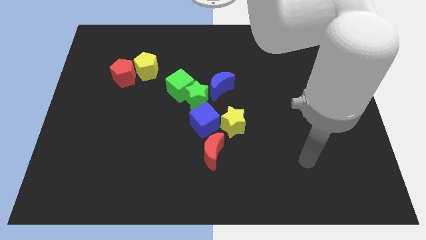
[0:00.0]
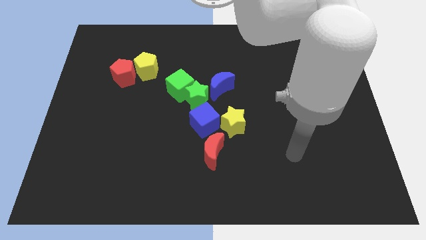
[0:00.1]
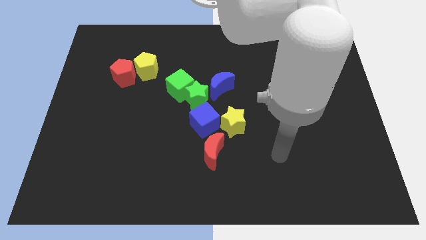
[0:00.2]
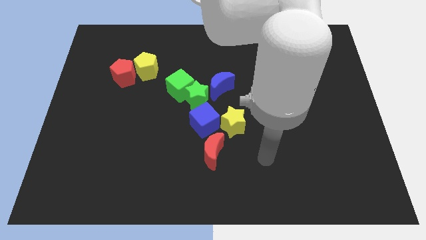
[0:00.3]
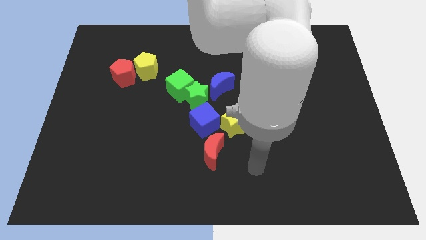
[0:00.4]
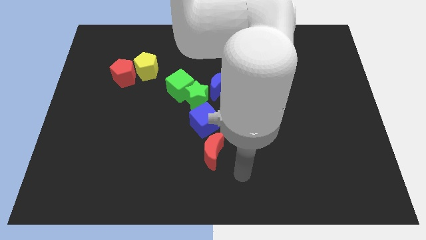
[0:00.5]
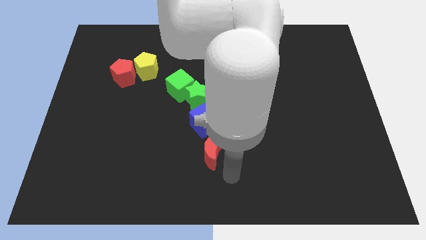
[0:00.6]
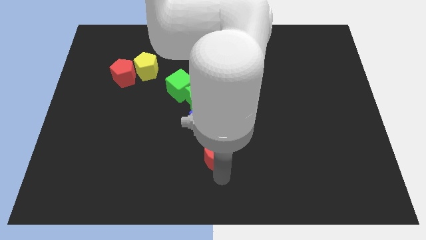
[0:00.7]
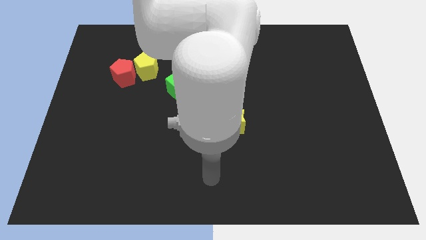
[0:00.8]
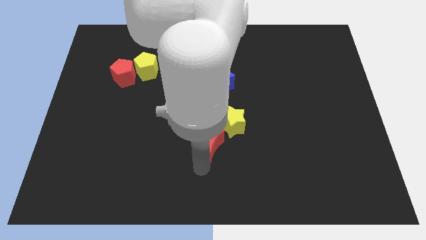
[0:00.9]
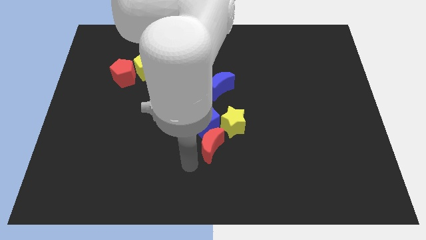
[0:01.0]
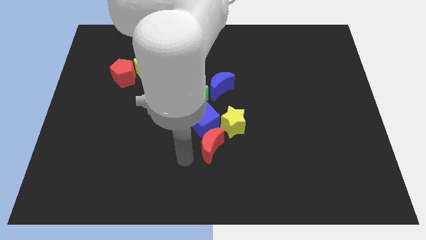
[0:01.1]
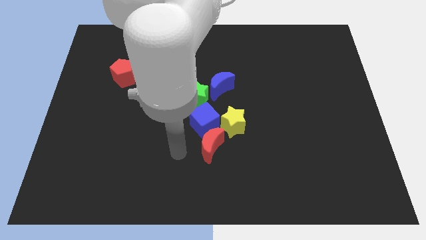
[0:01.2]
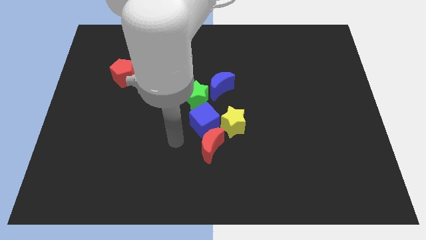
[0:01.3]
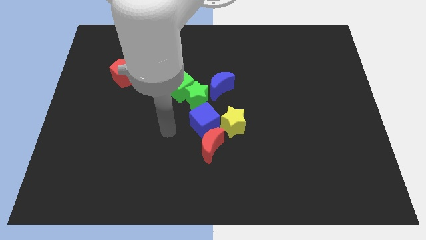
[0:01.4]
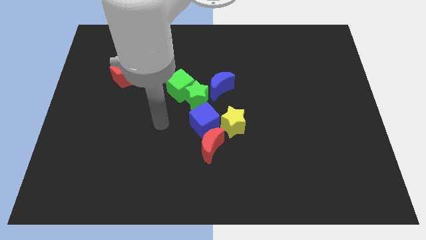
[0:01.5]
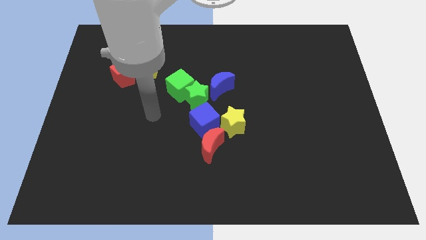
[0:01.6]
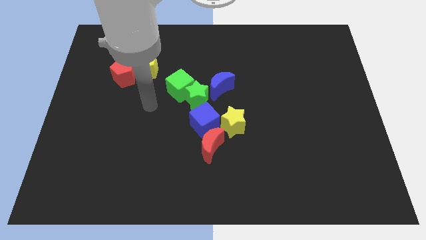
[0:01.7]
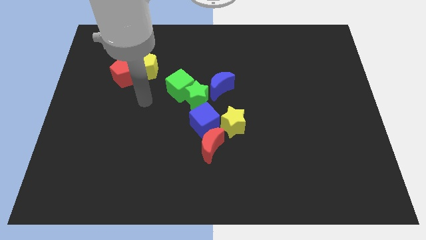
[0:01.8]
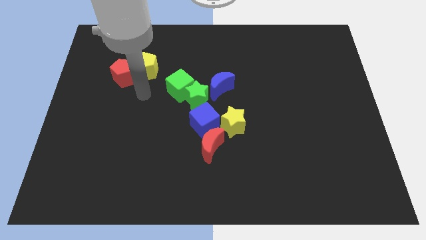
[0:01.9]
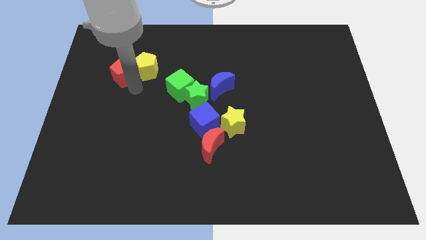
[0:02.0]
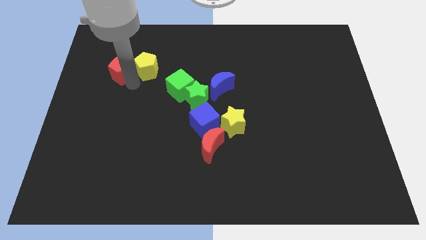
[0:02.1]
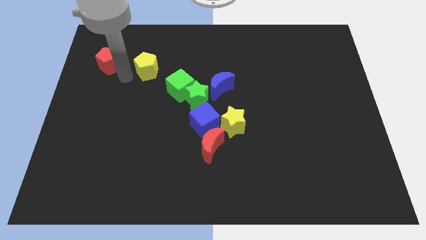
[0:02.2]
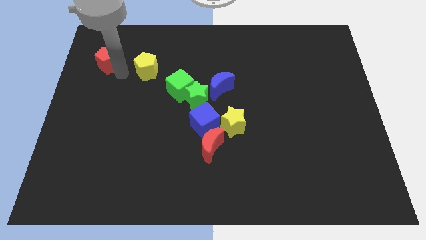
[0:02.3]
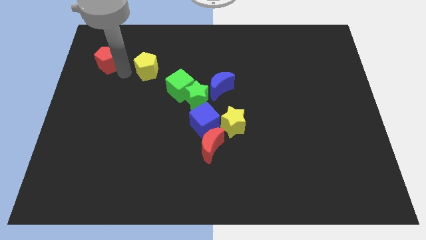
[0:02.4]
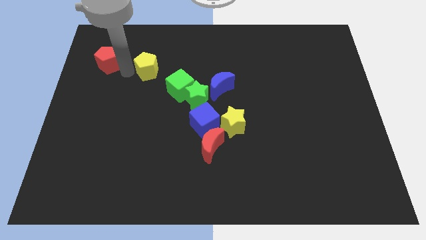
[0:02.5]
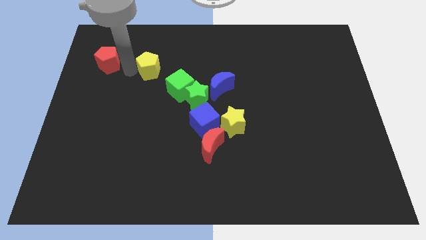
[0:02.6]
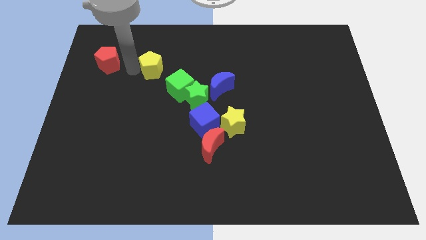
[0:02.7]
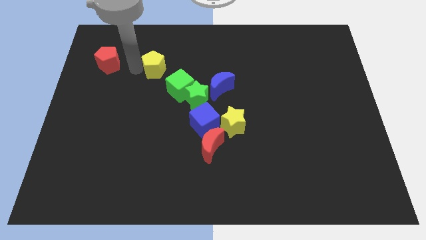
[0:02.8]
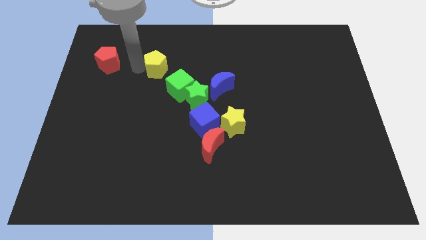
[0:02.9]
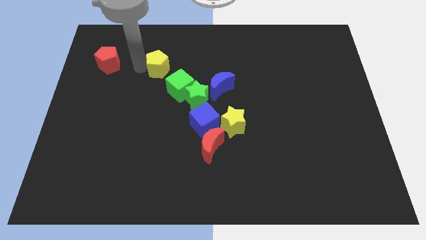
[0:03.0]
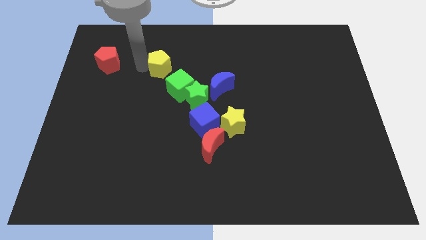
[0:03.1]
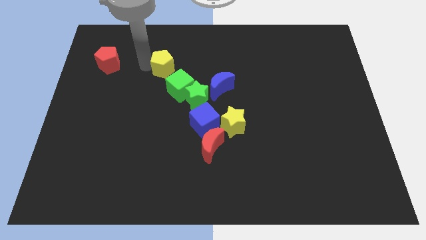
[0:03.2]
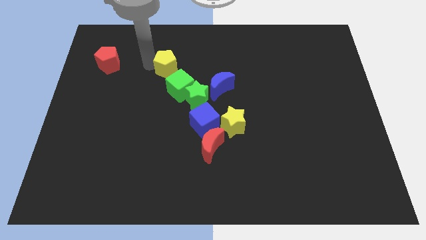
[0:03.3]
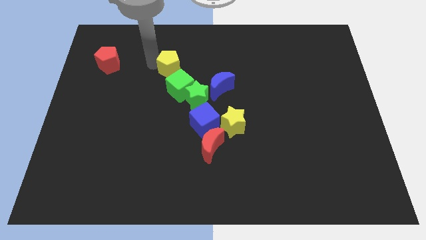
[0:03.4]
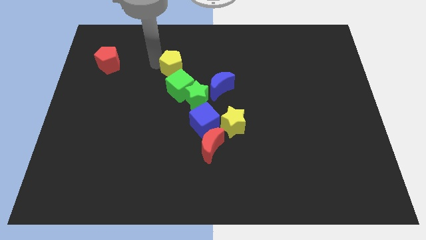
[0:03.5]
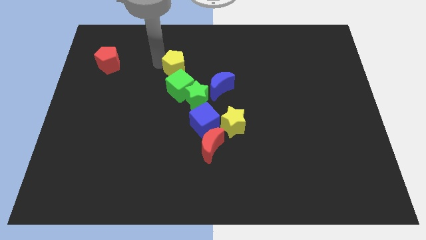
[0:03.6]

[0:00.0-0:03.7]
push the yellow pentagon a little to the right

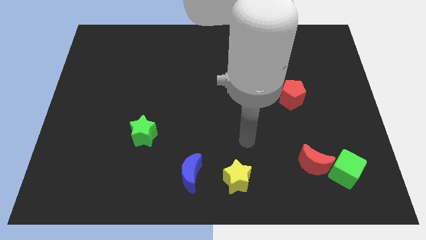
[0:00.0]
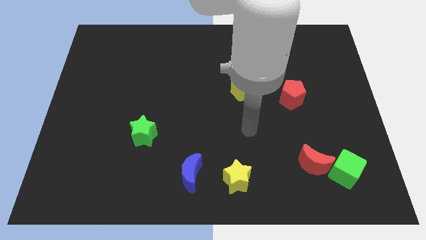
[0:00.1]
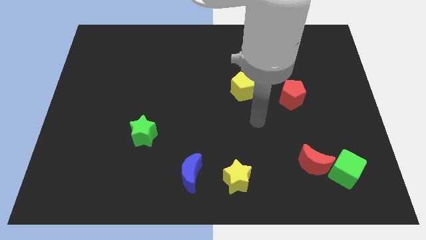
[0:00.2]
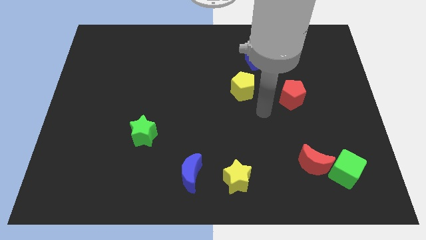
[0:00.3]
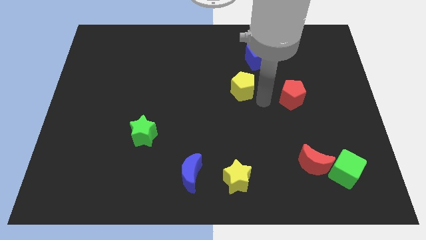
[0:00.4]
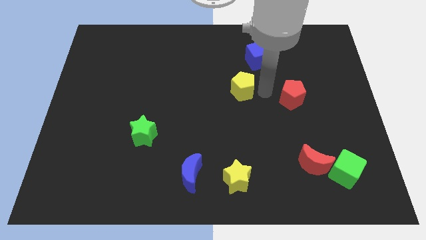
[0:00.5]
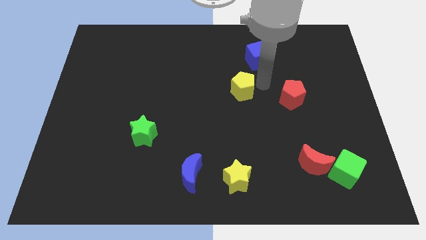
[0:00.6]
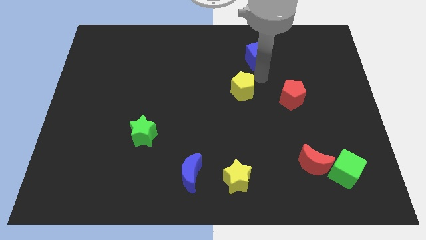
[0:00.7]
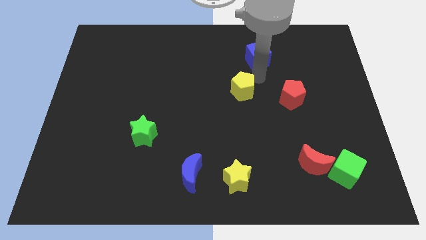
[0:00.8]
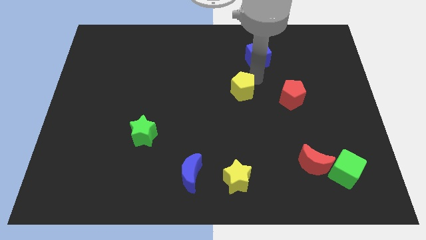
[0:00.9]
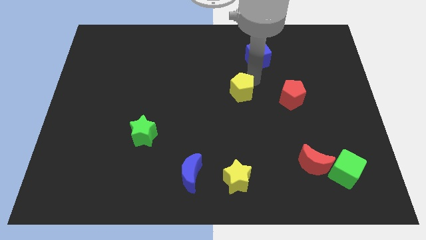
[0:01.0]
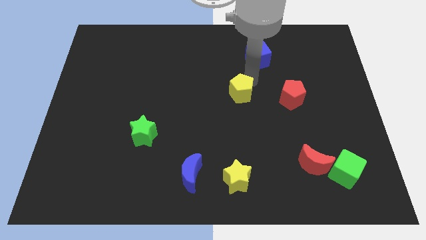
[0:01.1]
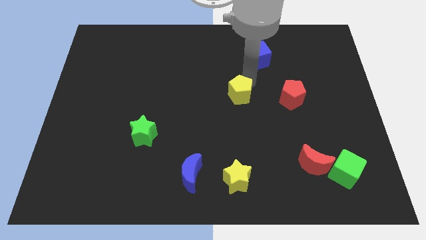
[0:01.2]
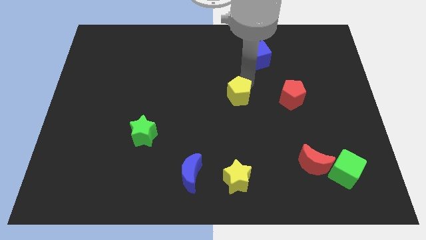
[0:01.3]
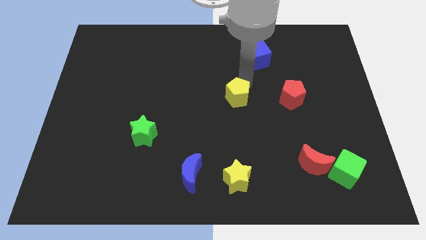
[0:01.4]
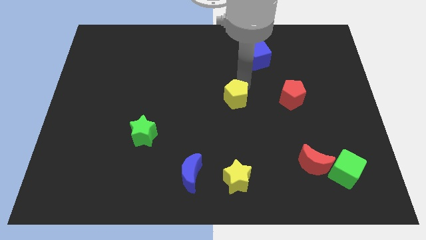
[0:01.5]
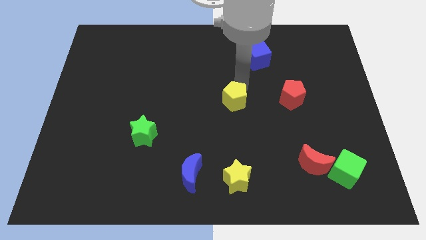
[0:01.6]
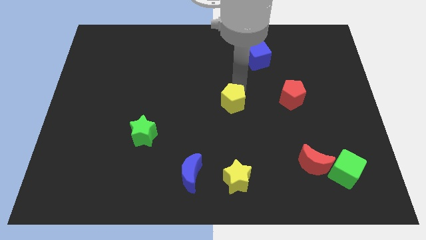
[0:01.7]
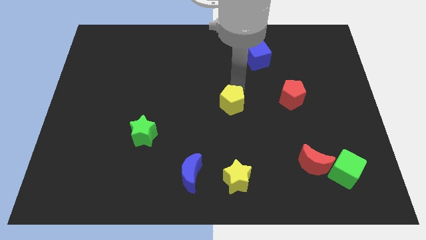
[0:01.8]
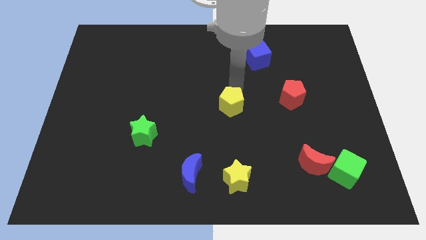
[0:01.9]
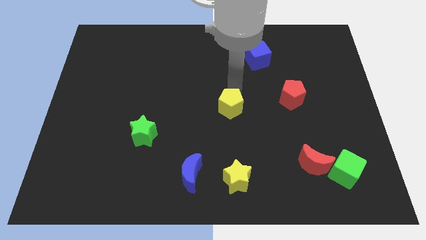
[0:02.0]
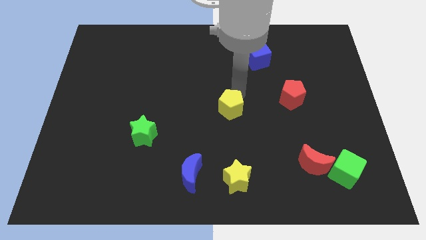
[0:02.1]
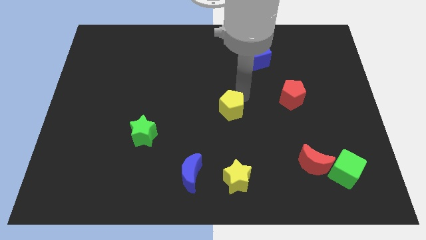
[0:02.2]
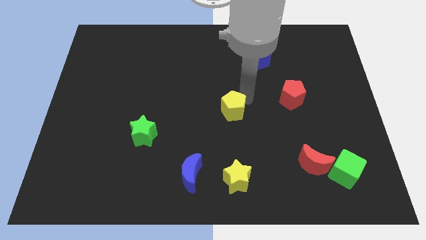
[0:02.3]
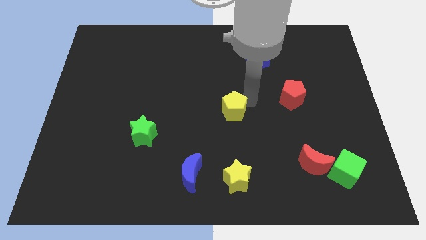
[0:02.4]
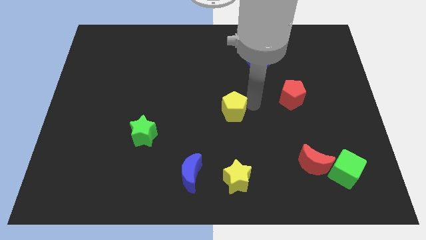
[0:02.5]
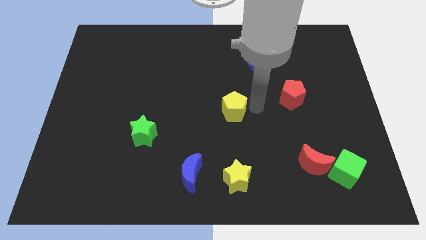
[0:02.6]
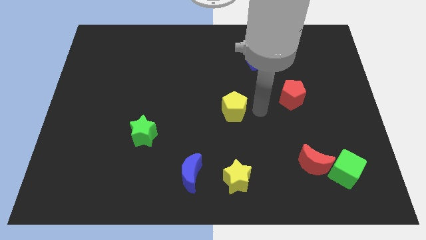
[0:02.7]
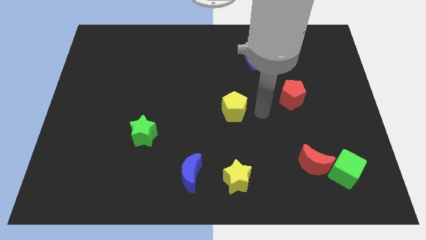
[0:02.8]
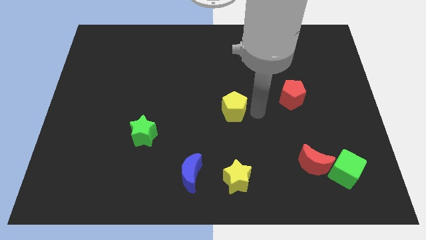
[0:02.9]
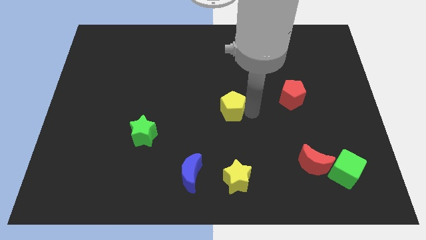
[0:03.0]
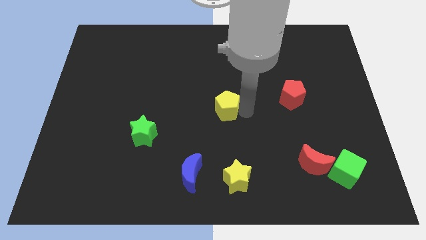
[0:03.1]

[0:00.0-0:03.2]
move the yellow pentagon downwards and to the left diagonally a little

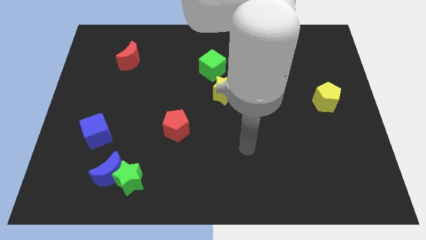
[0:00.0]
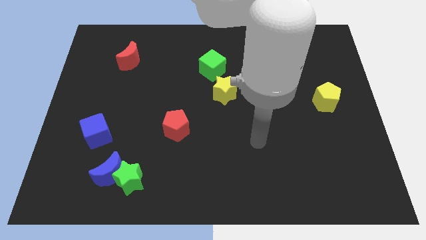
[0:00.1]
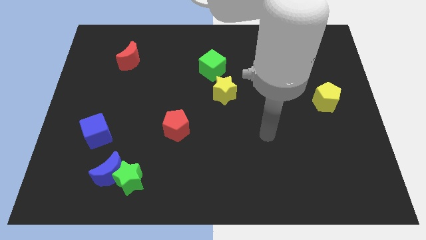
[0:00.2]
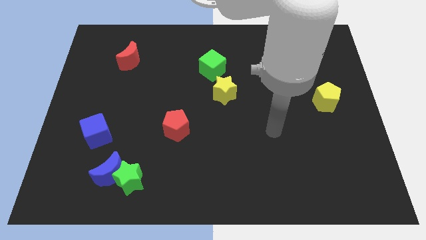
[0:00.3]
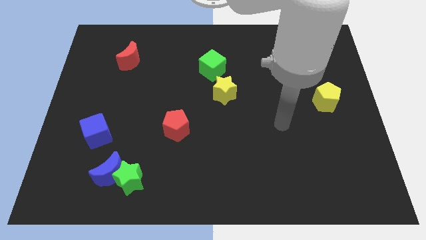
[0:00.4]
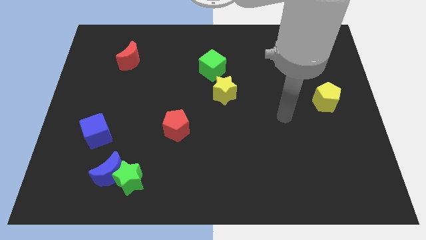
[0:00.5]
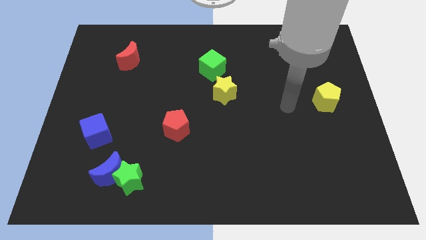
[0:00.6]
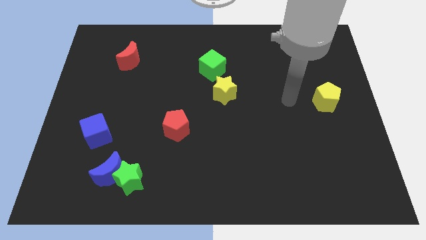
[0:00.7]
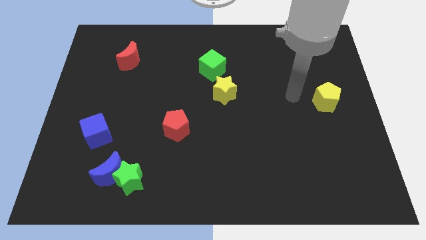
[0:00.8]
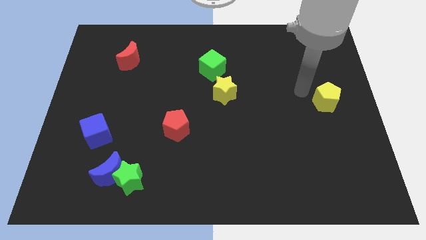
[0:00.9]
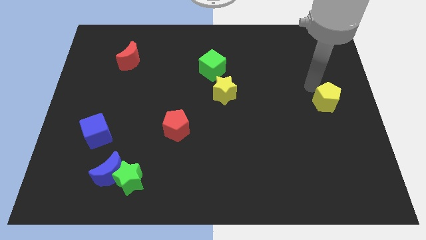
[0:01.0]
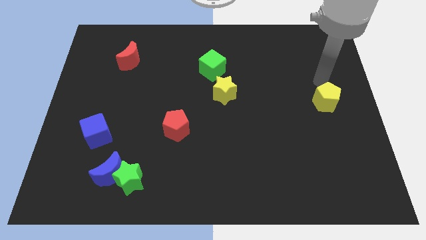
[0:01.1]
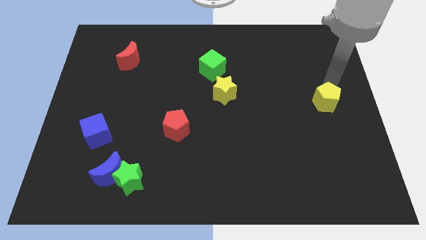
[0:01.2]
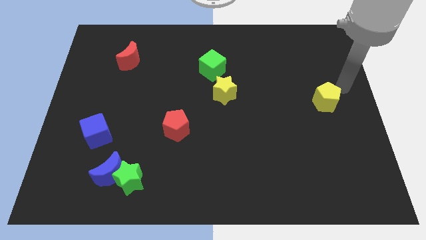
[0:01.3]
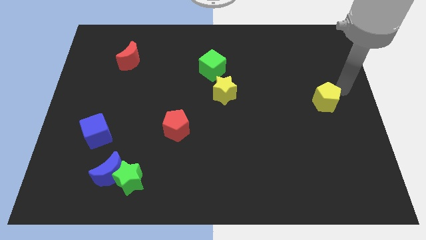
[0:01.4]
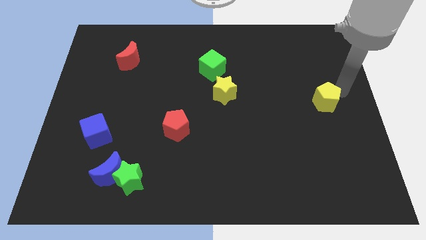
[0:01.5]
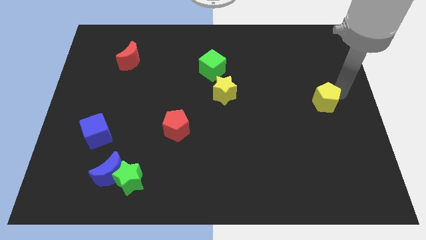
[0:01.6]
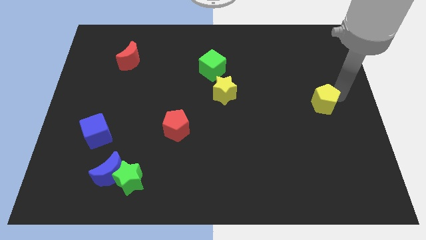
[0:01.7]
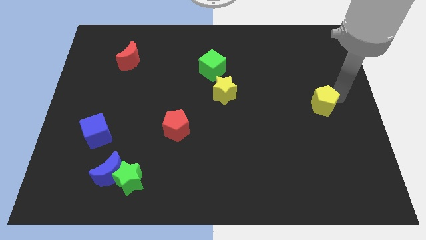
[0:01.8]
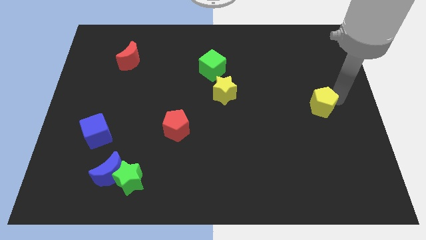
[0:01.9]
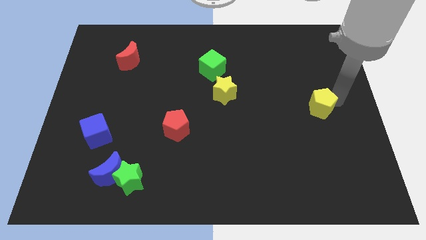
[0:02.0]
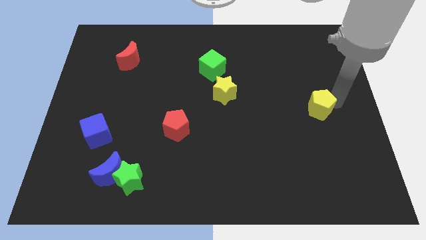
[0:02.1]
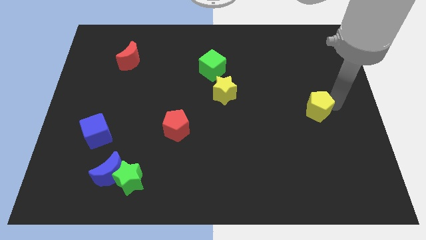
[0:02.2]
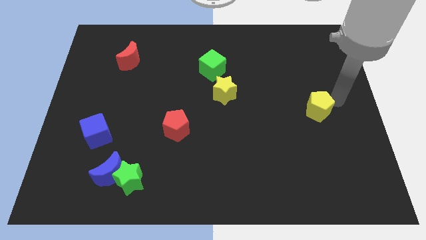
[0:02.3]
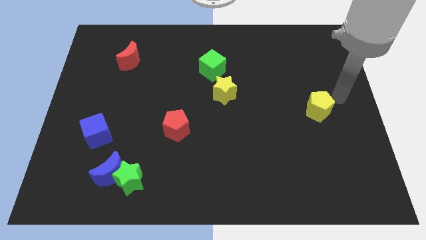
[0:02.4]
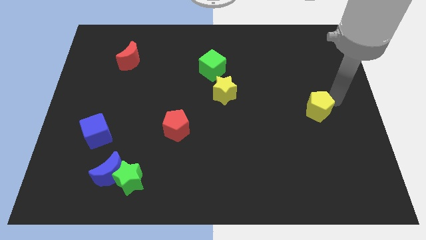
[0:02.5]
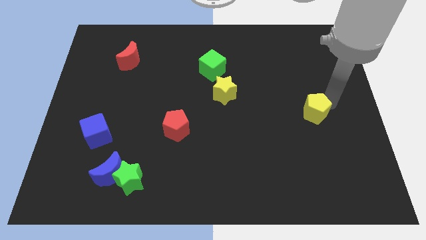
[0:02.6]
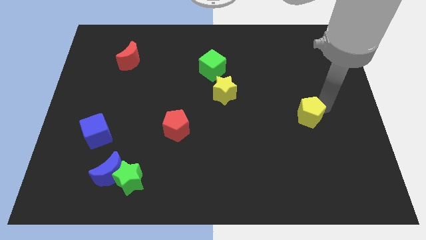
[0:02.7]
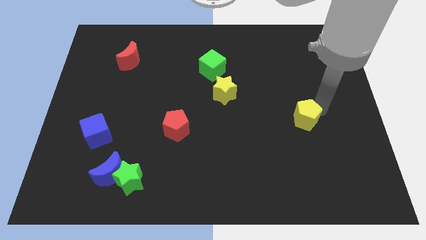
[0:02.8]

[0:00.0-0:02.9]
slightly slide the yellow pentagon diagonally downwards and to the left
